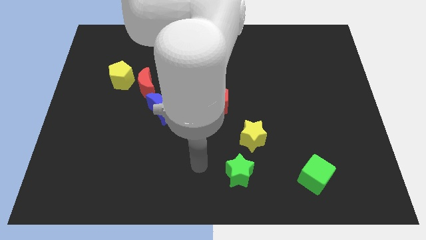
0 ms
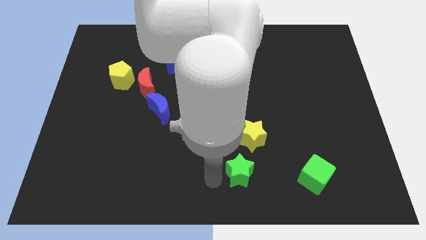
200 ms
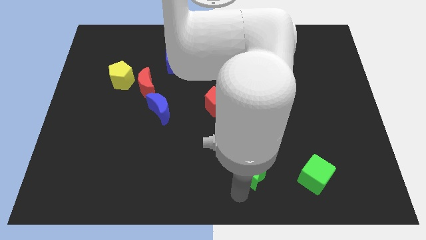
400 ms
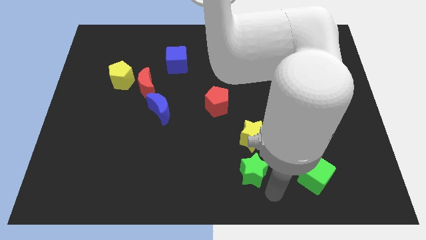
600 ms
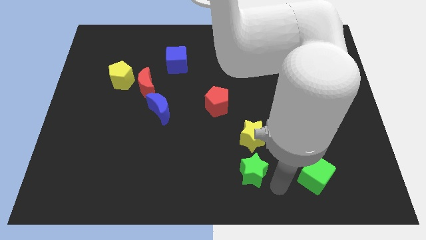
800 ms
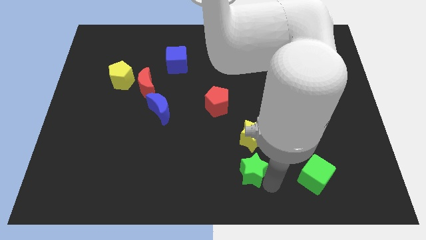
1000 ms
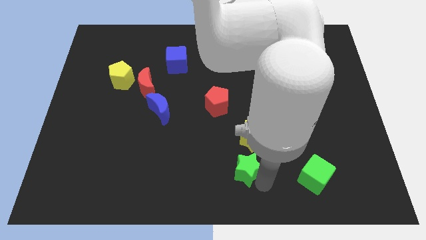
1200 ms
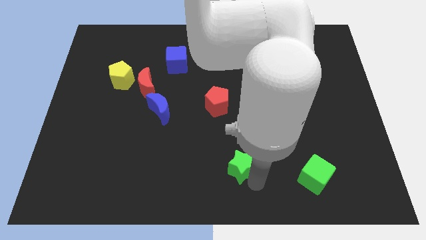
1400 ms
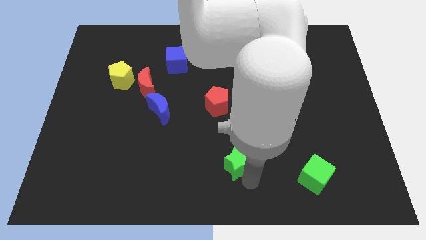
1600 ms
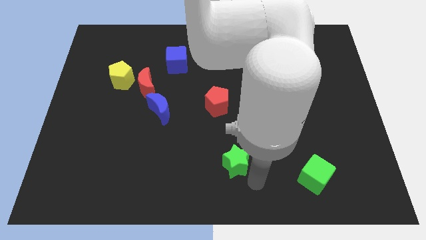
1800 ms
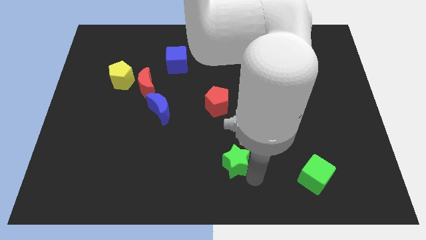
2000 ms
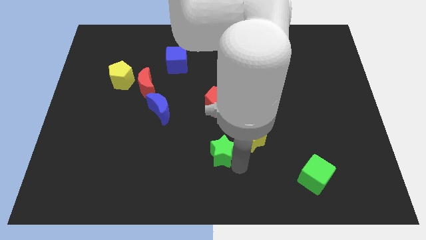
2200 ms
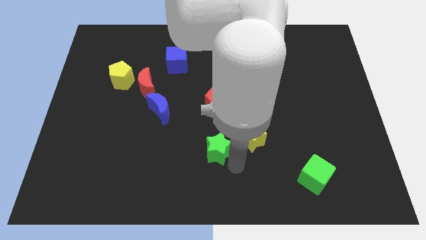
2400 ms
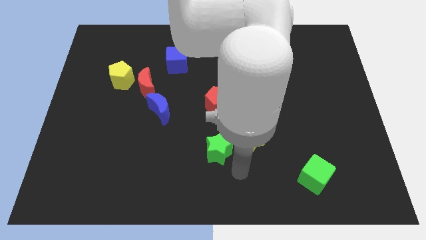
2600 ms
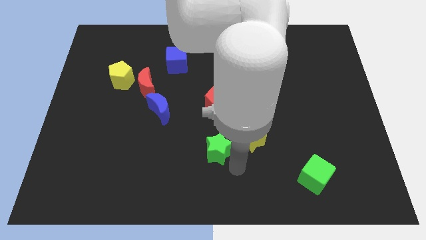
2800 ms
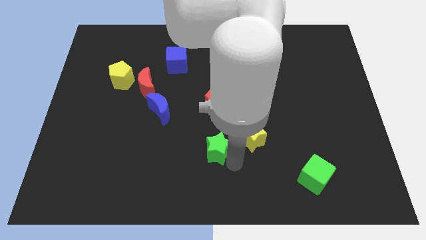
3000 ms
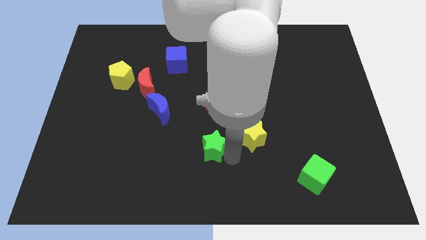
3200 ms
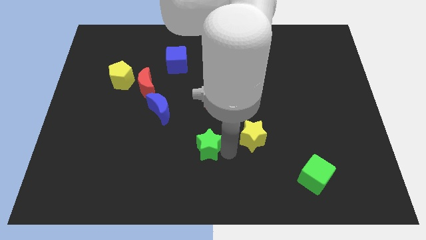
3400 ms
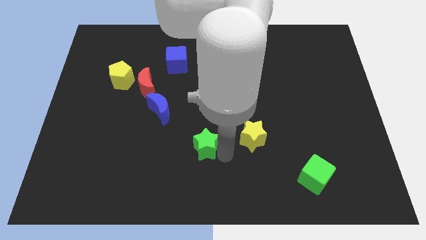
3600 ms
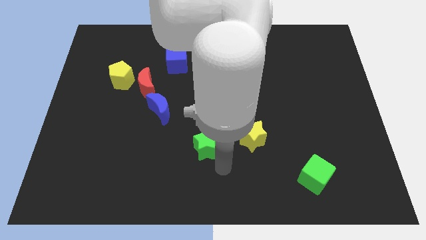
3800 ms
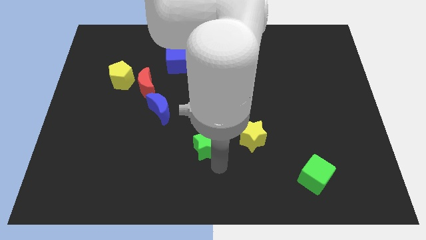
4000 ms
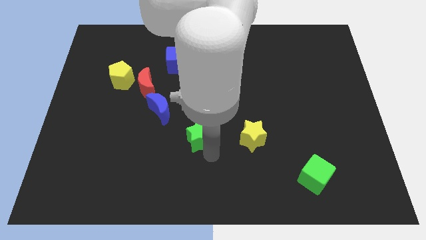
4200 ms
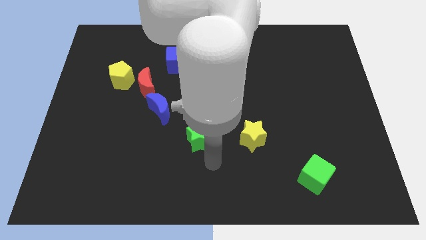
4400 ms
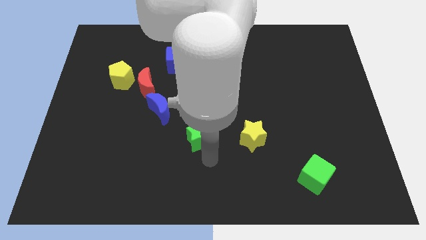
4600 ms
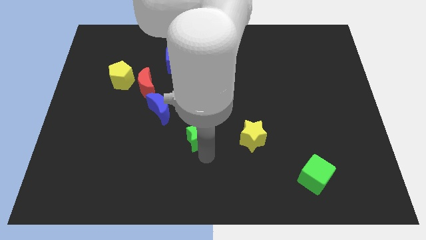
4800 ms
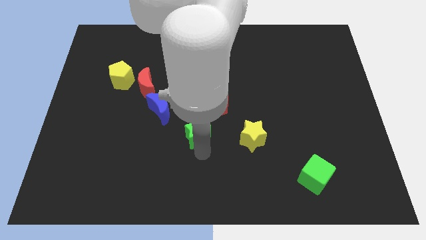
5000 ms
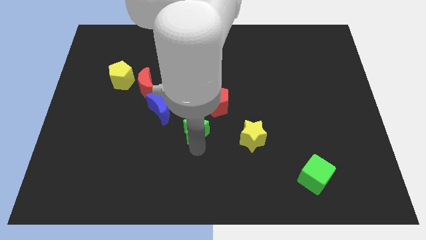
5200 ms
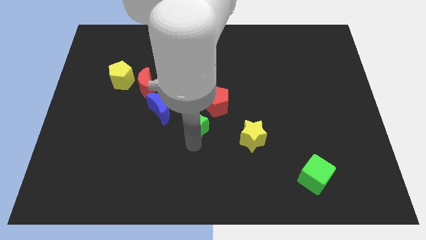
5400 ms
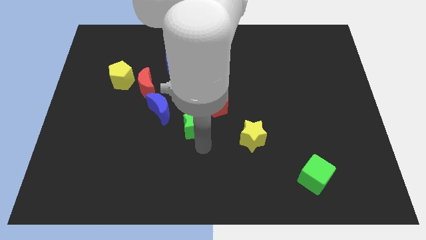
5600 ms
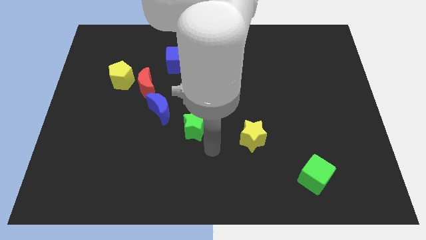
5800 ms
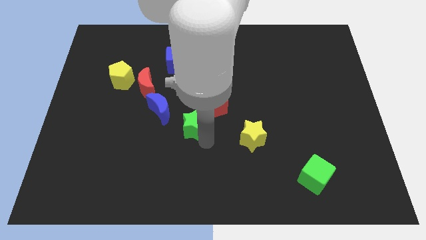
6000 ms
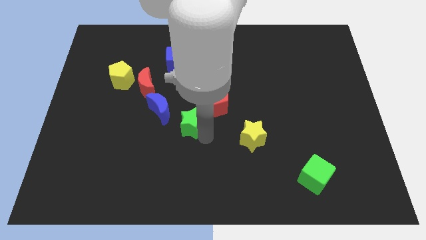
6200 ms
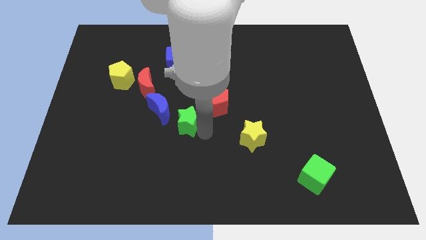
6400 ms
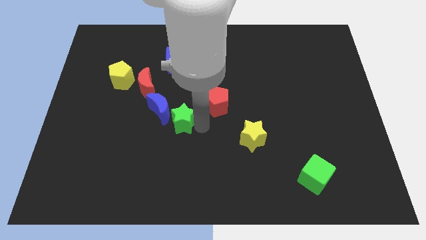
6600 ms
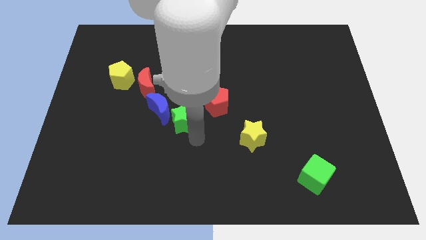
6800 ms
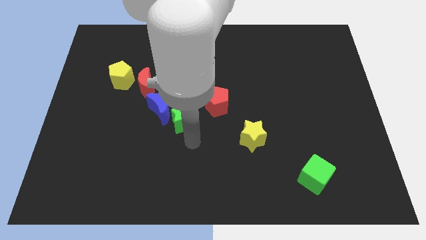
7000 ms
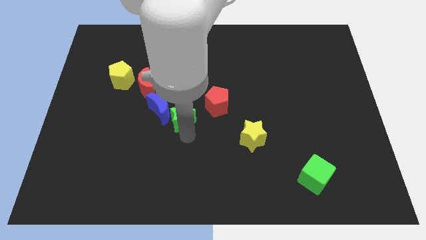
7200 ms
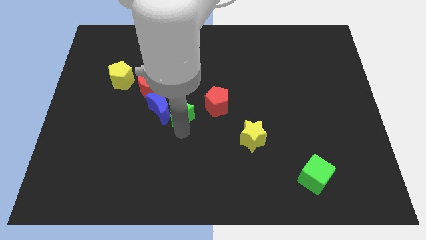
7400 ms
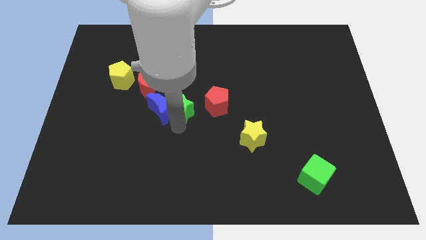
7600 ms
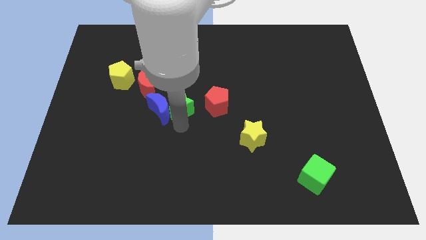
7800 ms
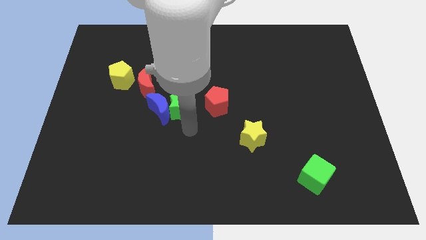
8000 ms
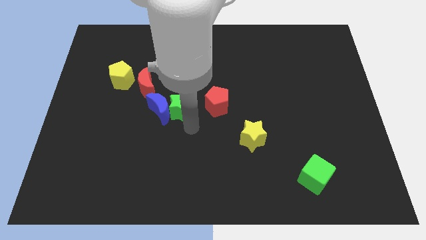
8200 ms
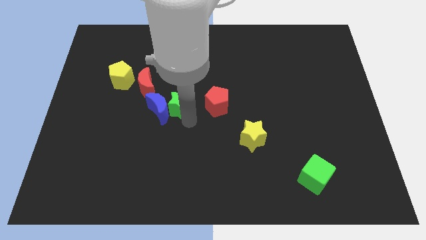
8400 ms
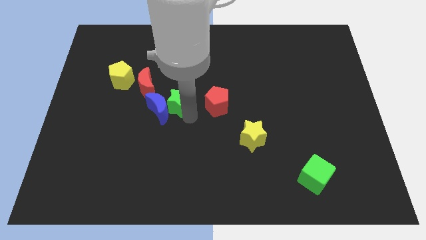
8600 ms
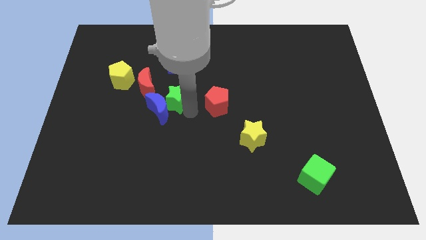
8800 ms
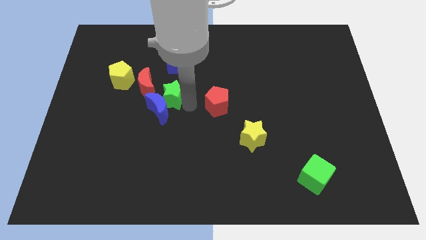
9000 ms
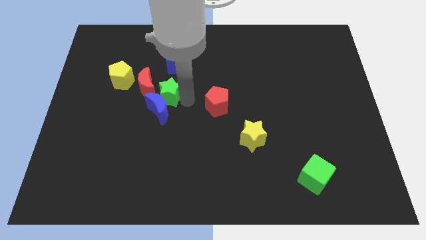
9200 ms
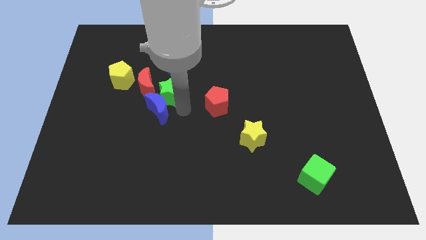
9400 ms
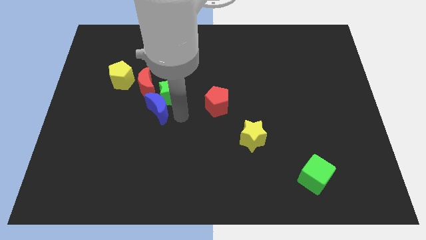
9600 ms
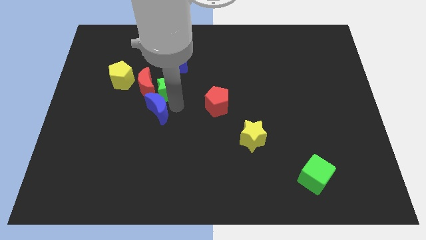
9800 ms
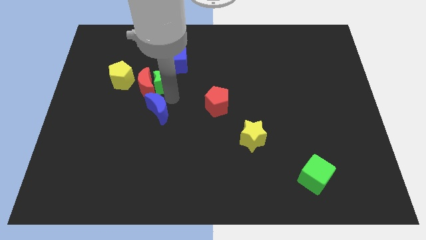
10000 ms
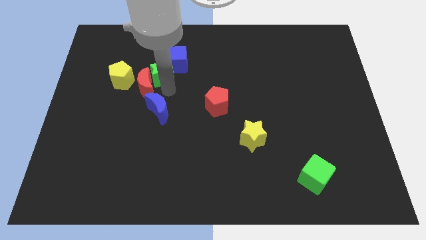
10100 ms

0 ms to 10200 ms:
put the green star above the red moon
